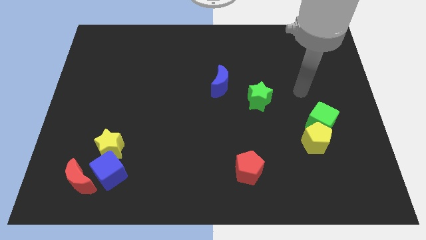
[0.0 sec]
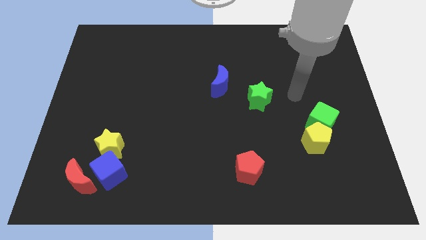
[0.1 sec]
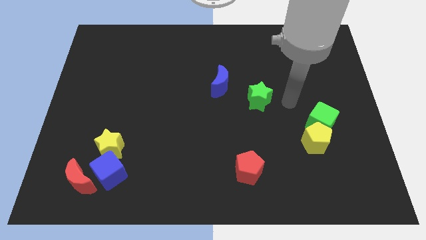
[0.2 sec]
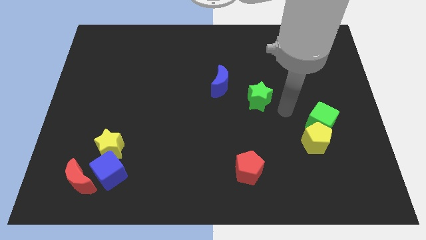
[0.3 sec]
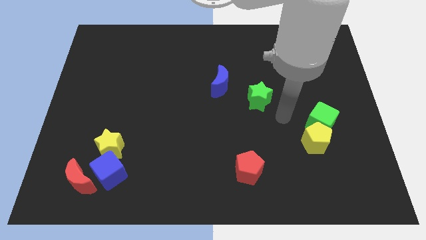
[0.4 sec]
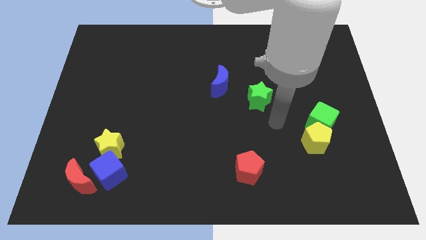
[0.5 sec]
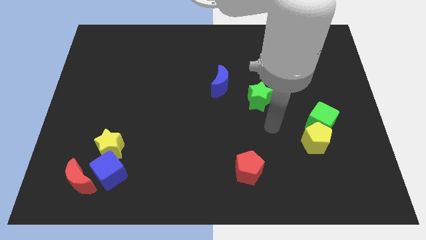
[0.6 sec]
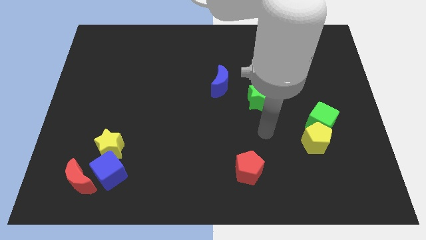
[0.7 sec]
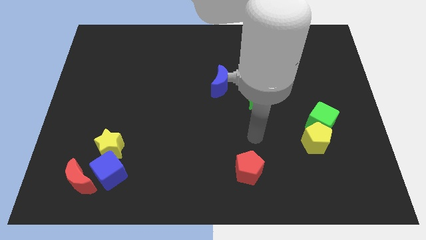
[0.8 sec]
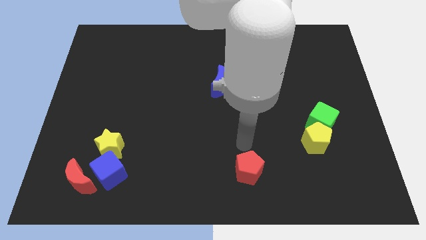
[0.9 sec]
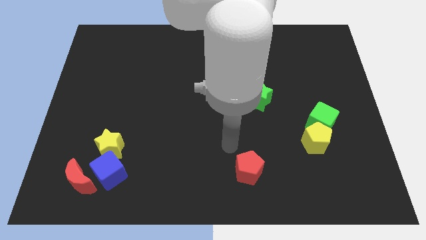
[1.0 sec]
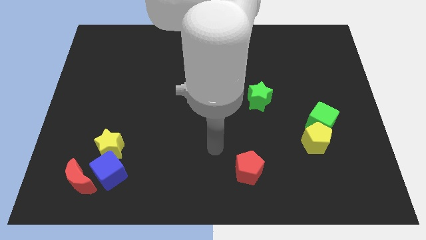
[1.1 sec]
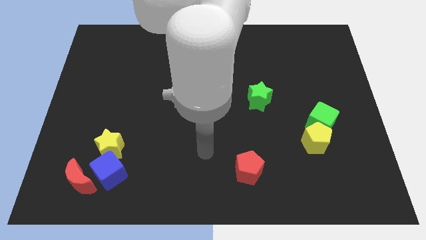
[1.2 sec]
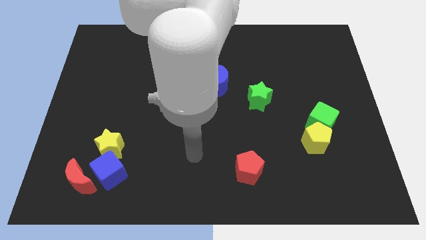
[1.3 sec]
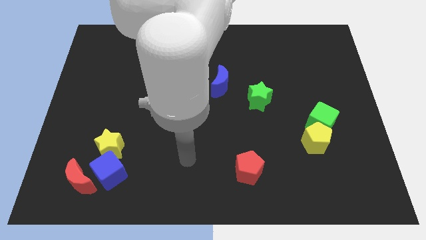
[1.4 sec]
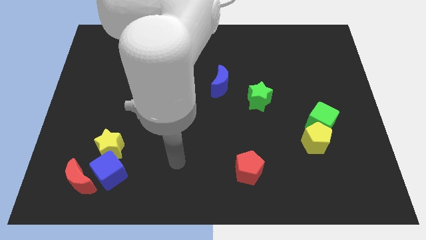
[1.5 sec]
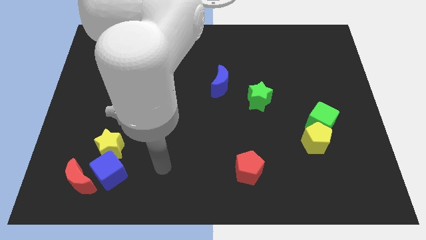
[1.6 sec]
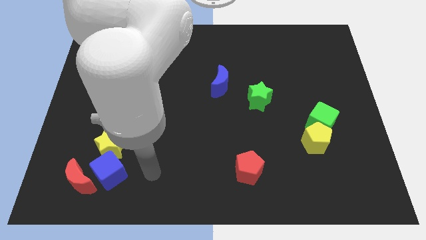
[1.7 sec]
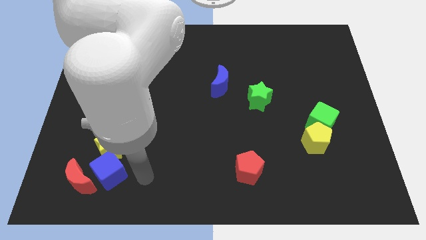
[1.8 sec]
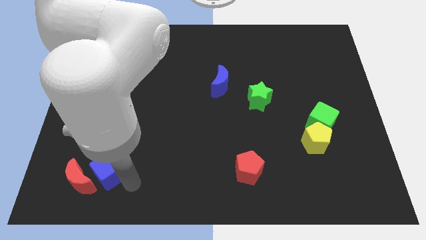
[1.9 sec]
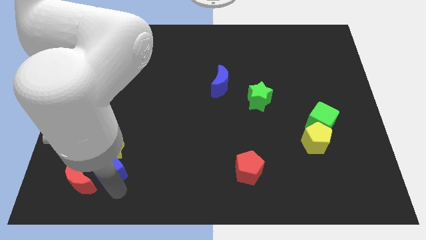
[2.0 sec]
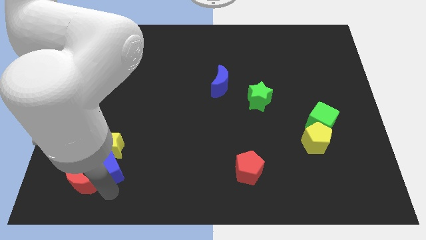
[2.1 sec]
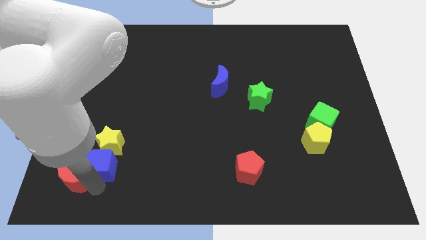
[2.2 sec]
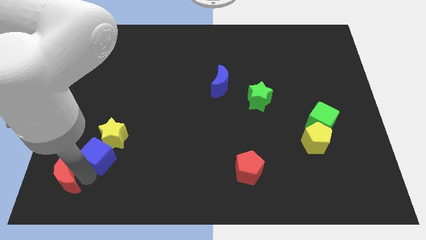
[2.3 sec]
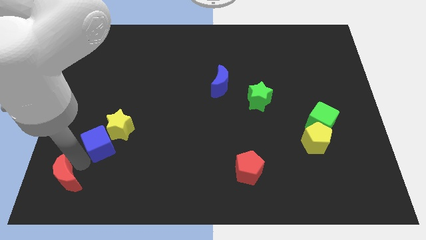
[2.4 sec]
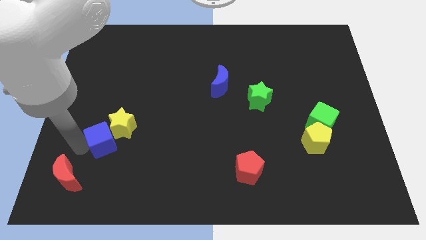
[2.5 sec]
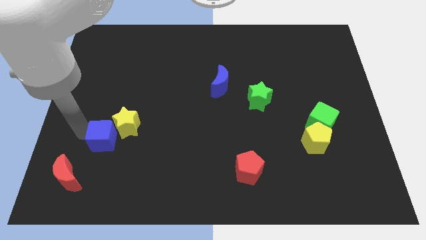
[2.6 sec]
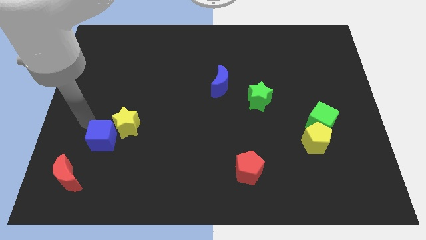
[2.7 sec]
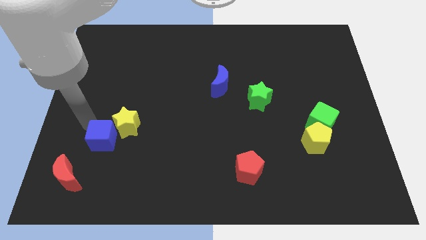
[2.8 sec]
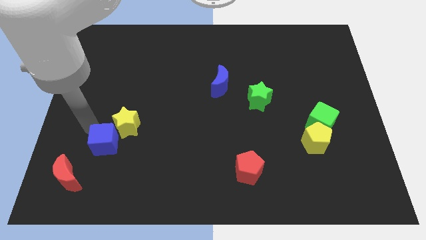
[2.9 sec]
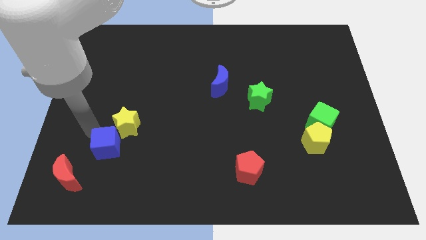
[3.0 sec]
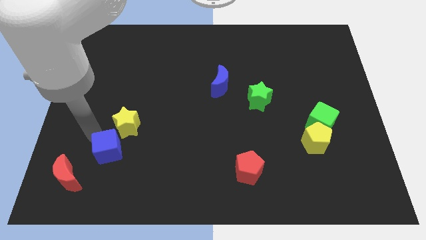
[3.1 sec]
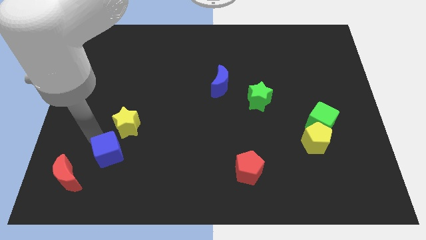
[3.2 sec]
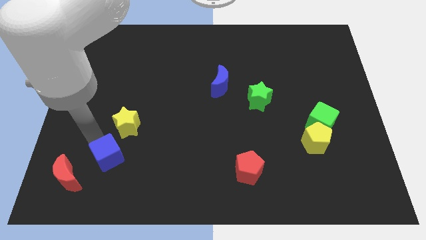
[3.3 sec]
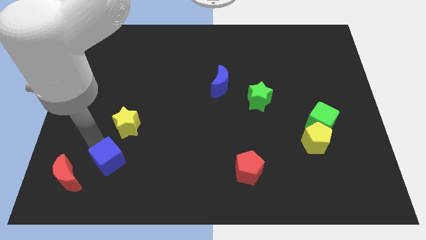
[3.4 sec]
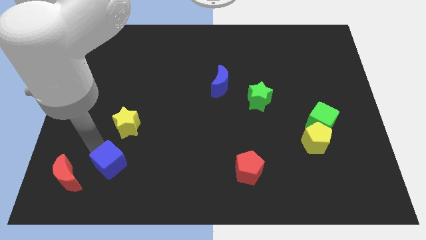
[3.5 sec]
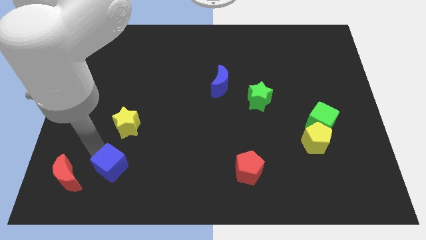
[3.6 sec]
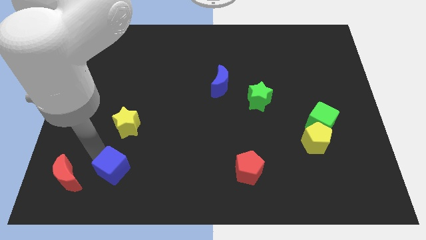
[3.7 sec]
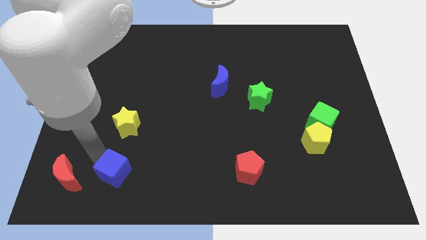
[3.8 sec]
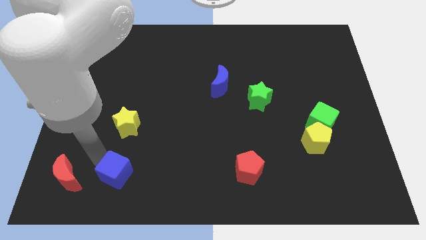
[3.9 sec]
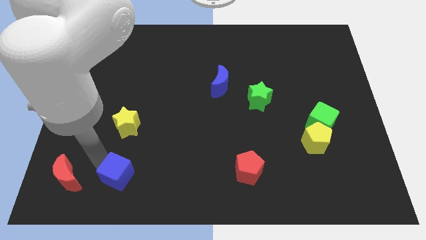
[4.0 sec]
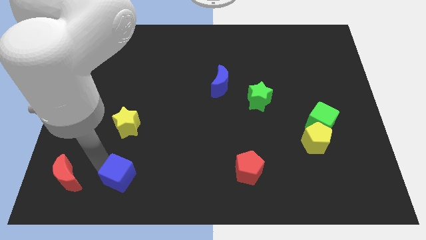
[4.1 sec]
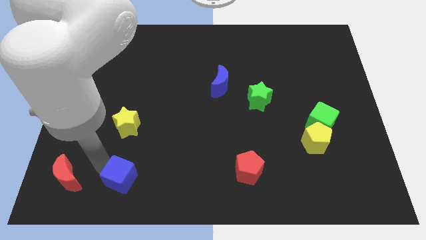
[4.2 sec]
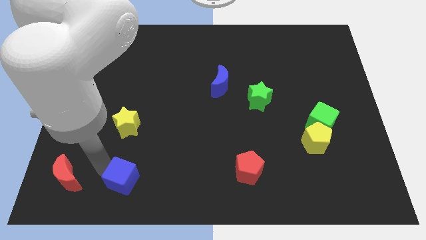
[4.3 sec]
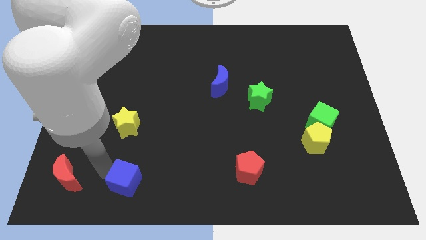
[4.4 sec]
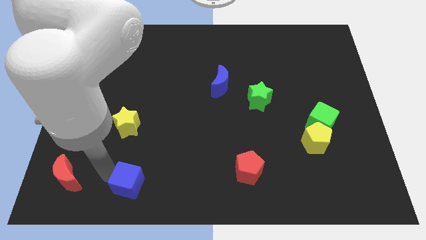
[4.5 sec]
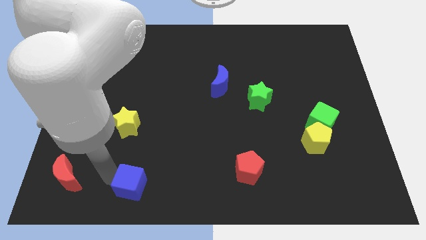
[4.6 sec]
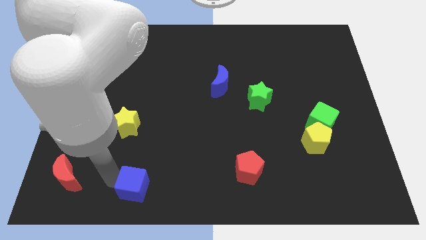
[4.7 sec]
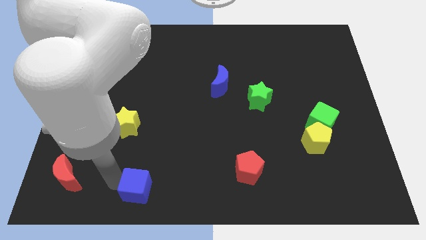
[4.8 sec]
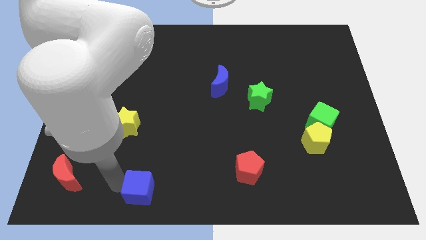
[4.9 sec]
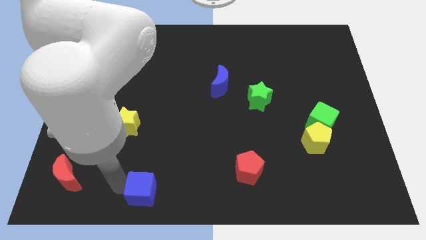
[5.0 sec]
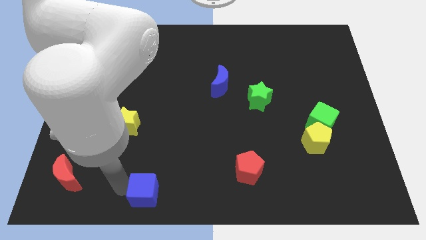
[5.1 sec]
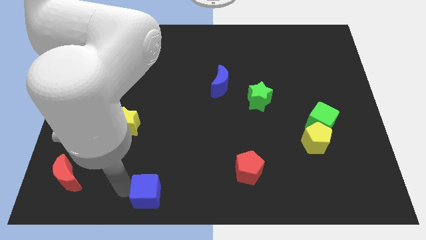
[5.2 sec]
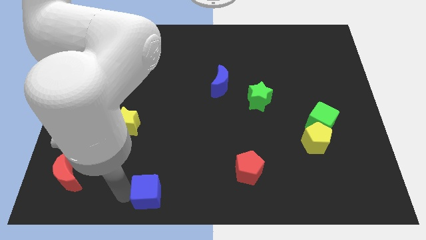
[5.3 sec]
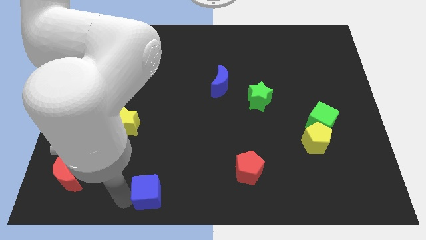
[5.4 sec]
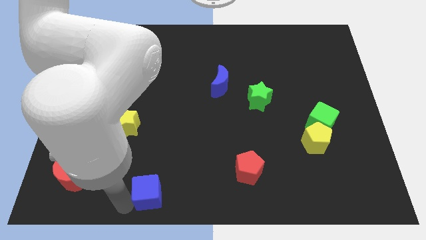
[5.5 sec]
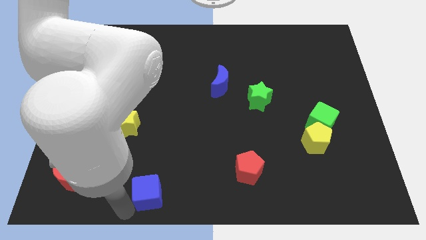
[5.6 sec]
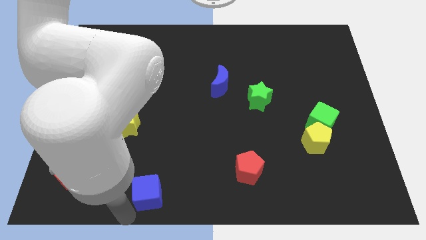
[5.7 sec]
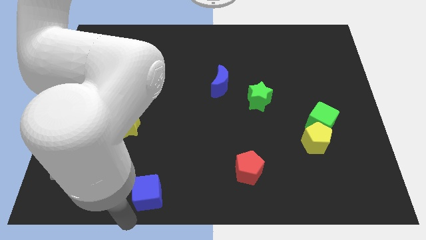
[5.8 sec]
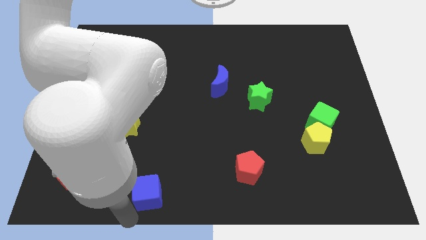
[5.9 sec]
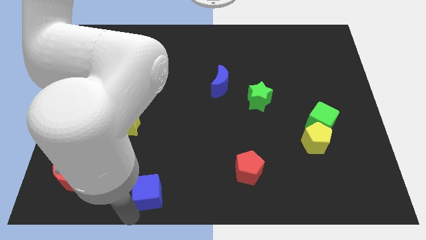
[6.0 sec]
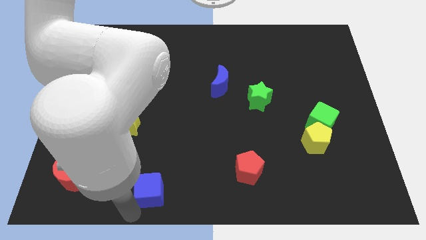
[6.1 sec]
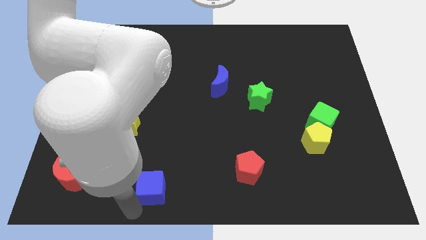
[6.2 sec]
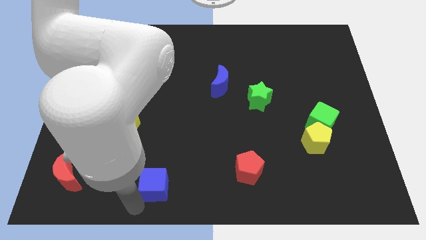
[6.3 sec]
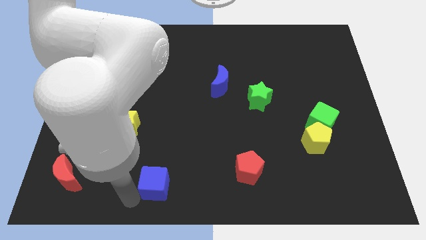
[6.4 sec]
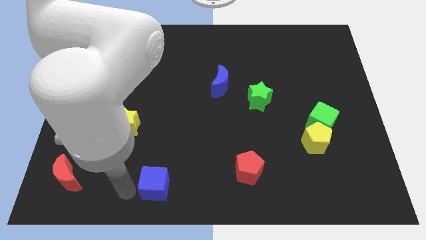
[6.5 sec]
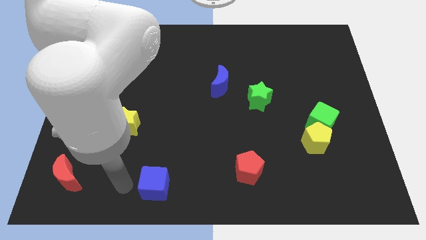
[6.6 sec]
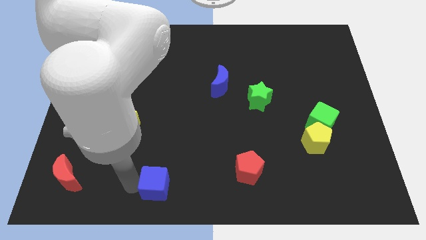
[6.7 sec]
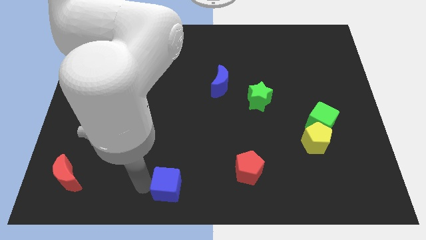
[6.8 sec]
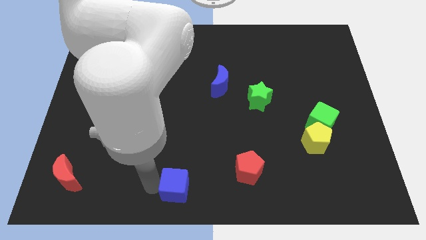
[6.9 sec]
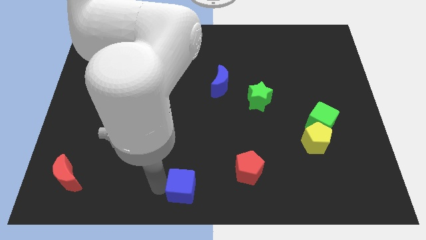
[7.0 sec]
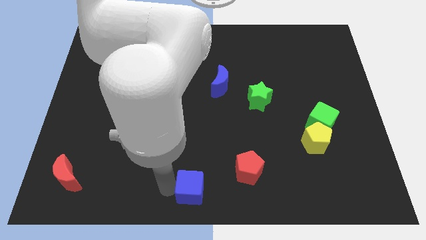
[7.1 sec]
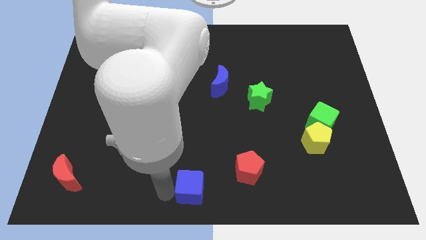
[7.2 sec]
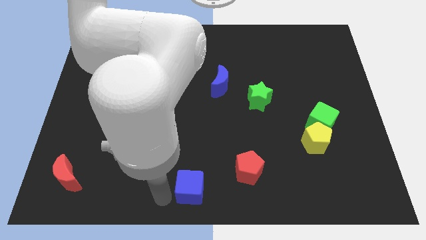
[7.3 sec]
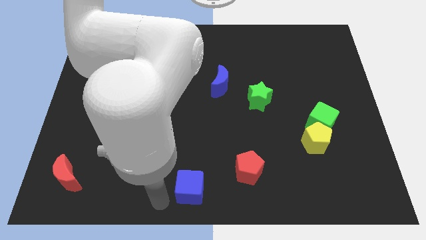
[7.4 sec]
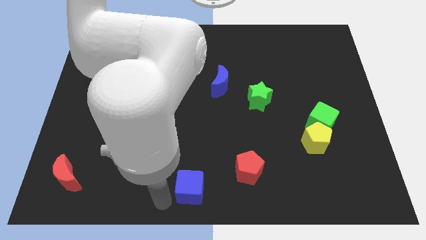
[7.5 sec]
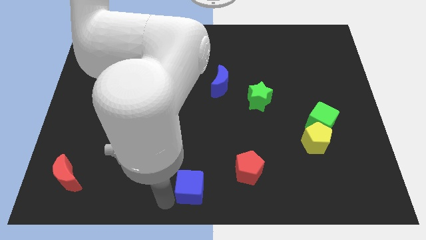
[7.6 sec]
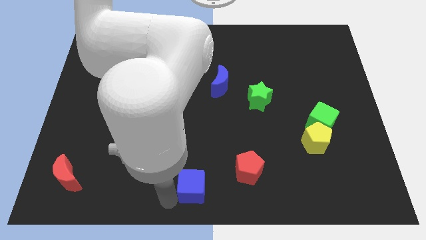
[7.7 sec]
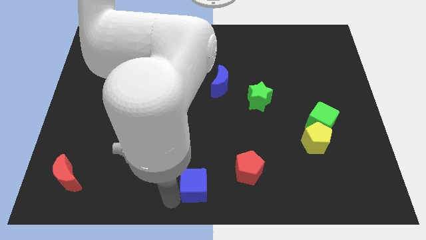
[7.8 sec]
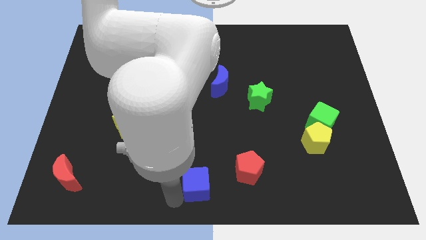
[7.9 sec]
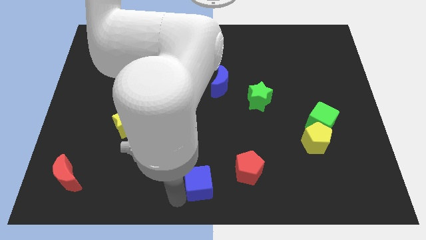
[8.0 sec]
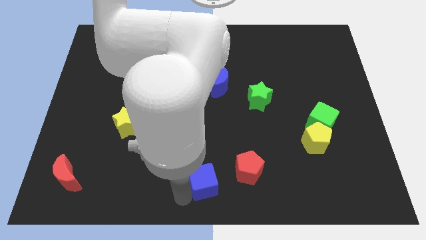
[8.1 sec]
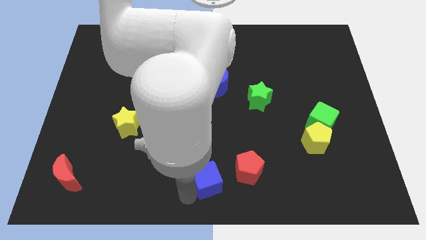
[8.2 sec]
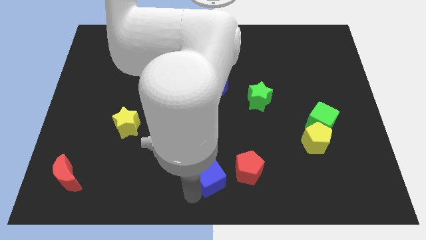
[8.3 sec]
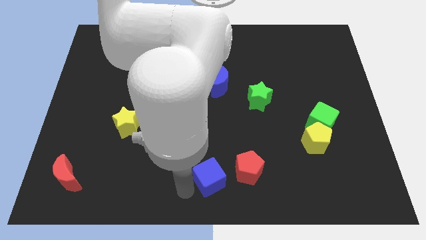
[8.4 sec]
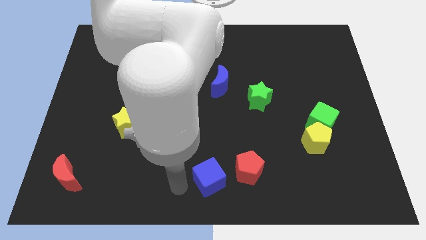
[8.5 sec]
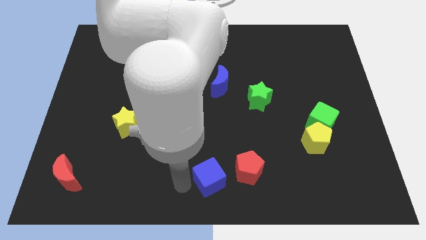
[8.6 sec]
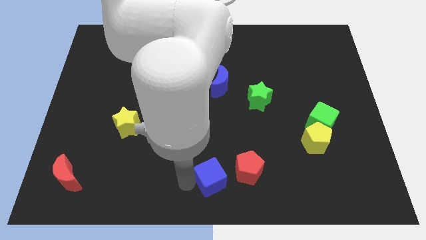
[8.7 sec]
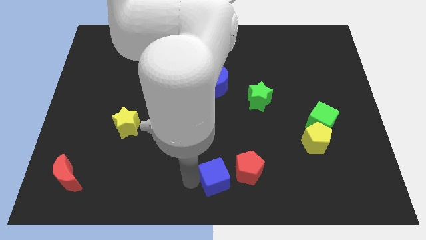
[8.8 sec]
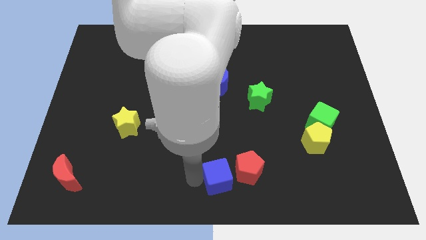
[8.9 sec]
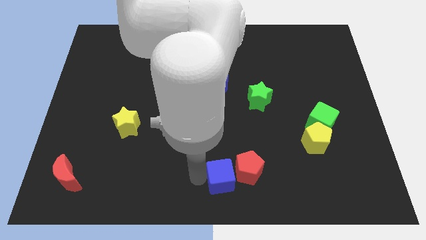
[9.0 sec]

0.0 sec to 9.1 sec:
move the blue cube close to the red pentagon
